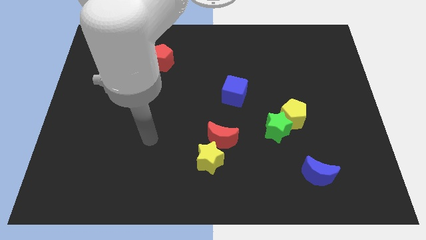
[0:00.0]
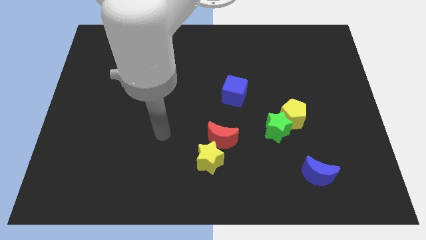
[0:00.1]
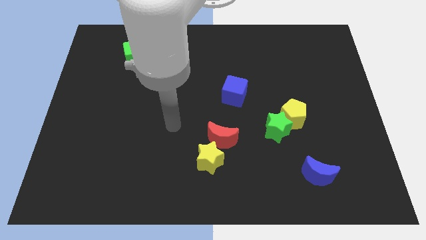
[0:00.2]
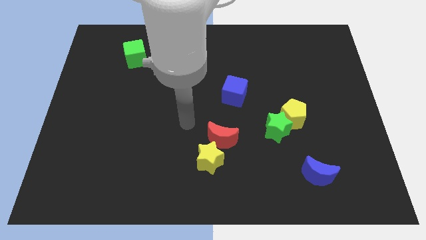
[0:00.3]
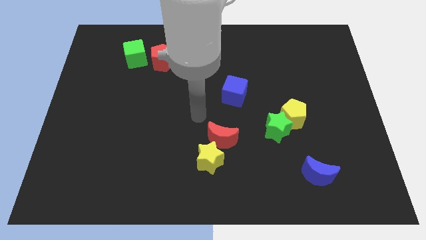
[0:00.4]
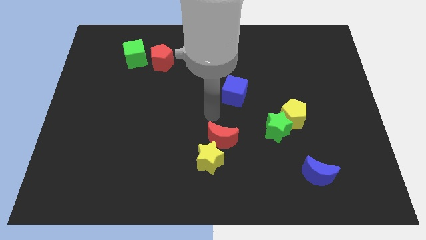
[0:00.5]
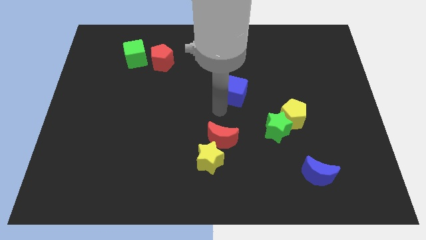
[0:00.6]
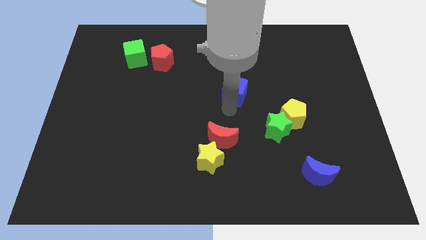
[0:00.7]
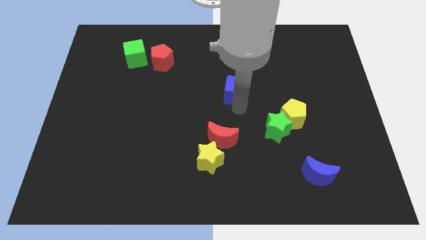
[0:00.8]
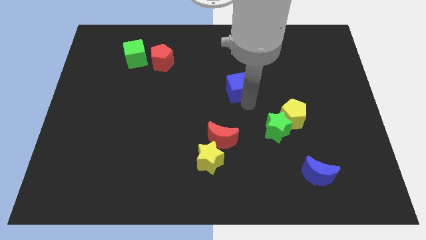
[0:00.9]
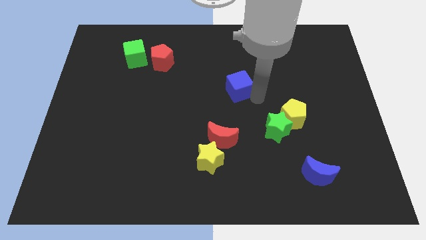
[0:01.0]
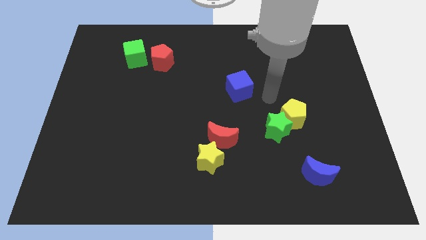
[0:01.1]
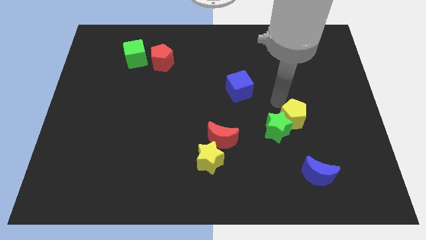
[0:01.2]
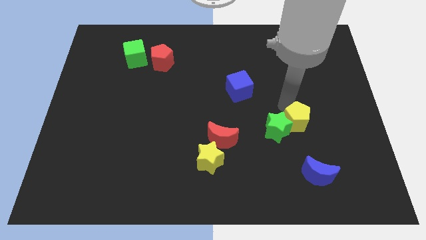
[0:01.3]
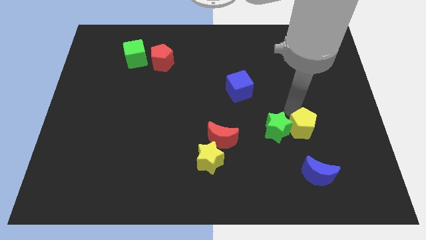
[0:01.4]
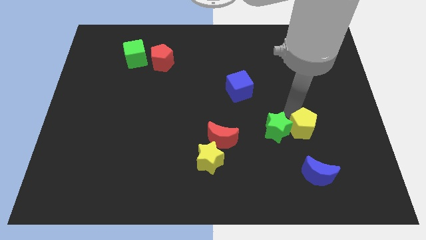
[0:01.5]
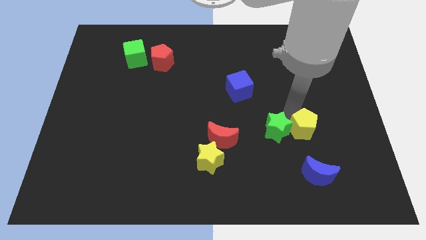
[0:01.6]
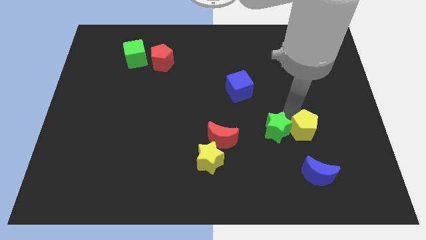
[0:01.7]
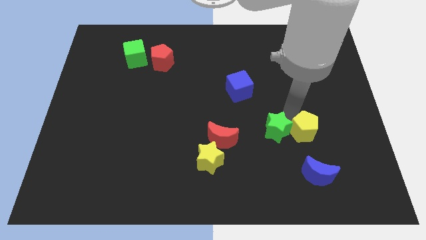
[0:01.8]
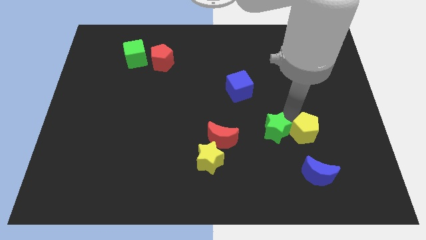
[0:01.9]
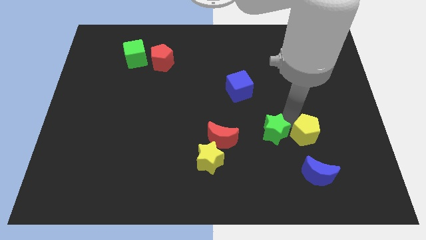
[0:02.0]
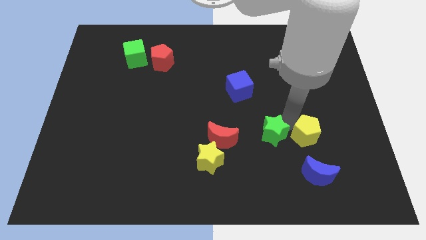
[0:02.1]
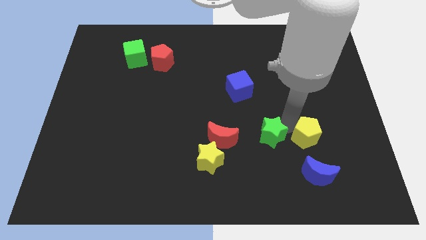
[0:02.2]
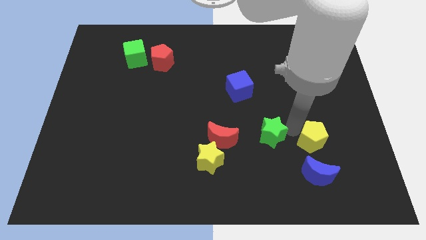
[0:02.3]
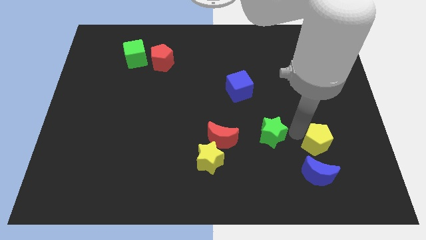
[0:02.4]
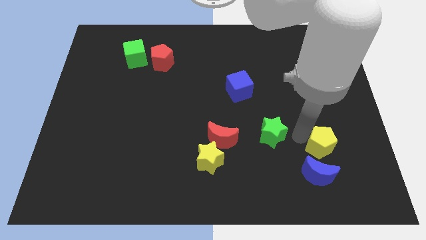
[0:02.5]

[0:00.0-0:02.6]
separate the green star from the yellow pentagon

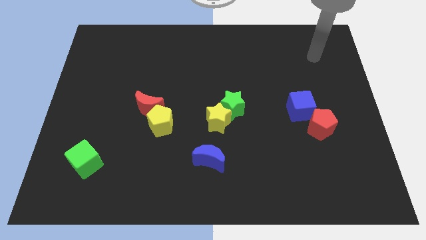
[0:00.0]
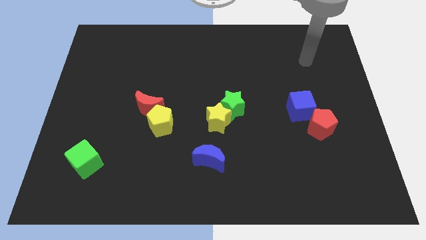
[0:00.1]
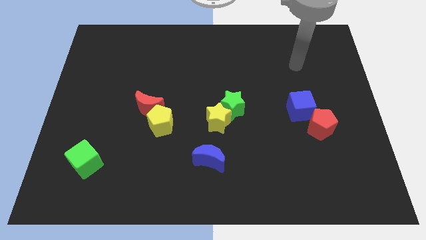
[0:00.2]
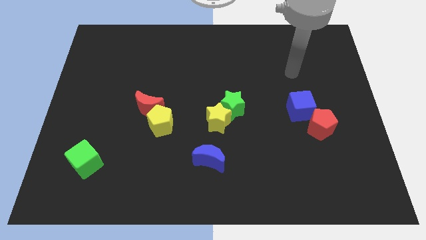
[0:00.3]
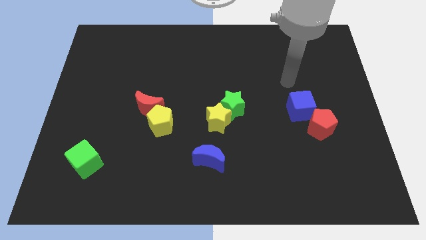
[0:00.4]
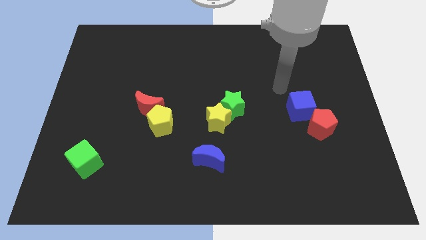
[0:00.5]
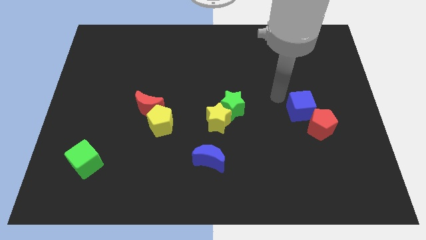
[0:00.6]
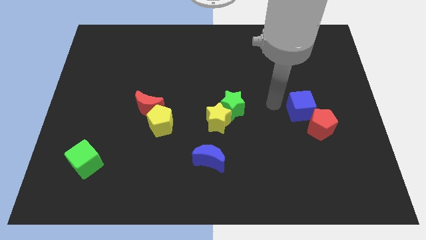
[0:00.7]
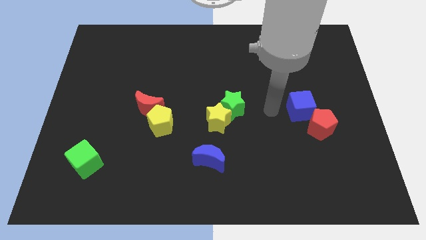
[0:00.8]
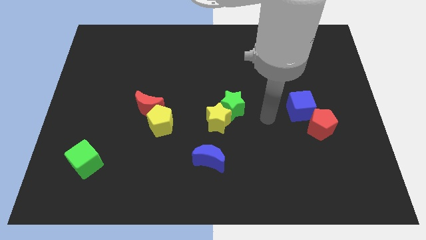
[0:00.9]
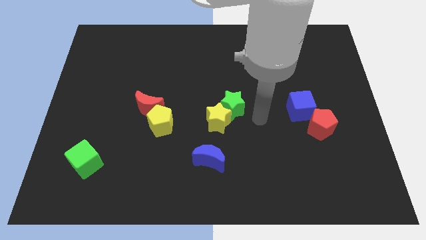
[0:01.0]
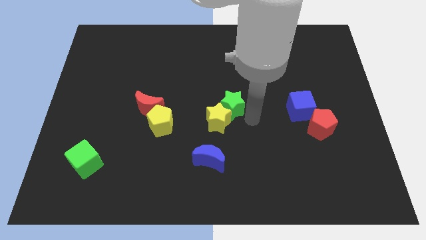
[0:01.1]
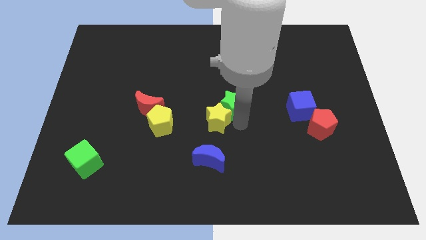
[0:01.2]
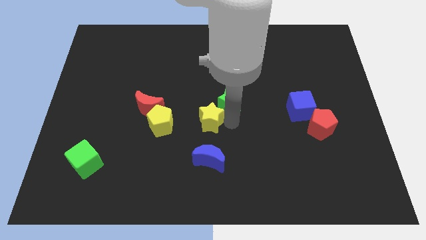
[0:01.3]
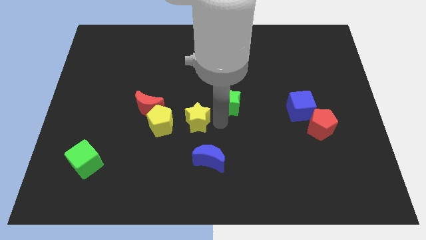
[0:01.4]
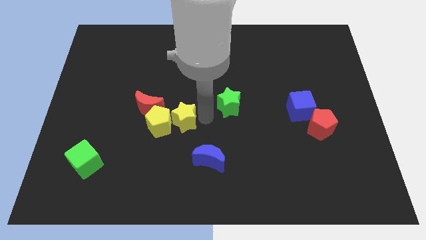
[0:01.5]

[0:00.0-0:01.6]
separate the green star from the yellow star

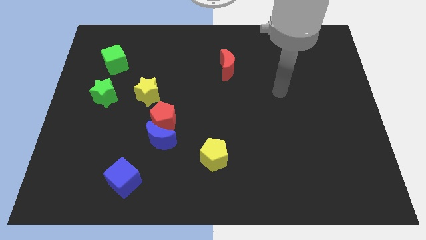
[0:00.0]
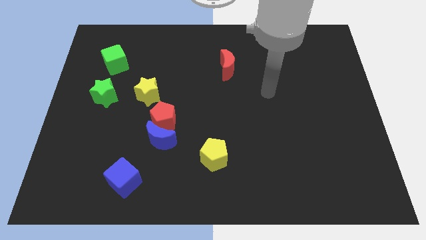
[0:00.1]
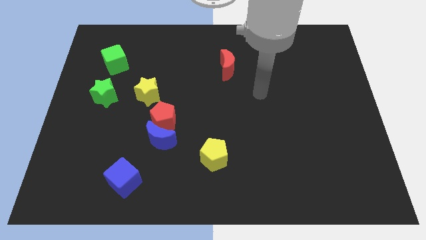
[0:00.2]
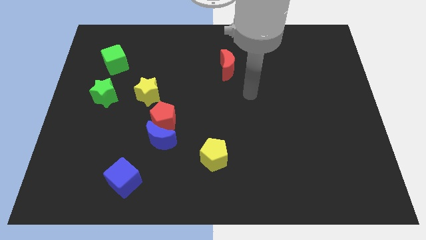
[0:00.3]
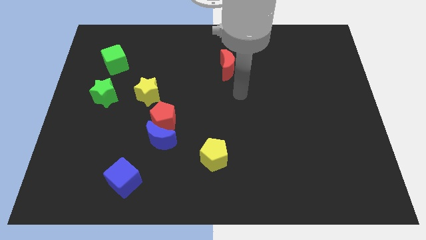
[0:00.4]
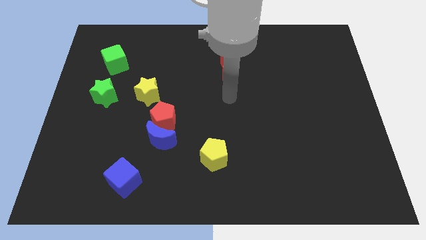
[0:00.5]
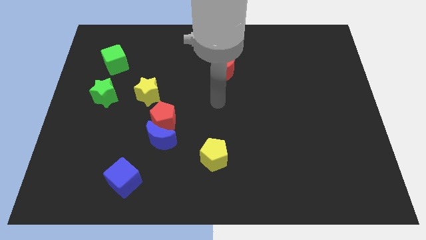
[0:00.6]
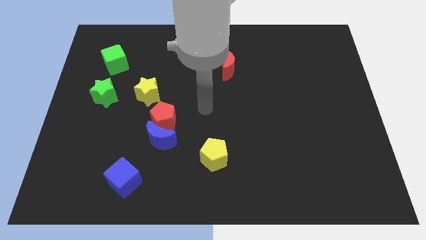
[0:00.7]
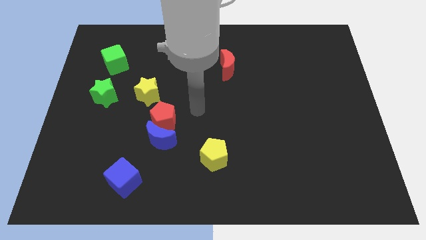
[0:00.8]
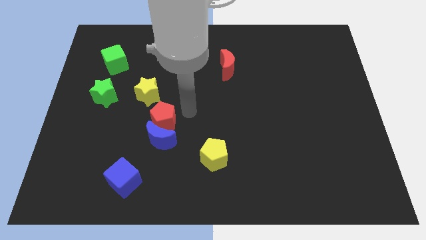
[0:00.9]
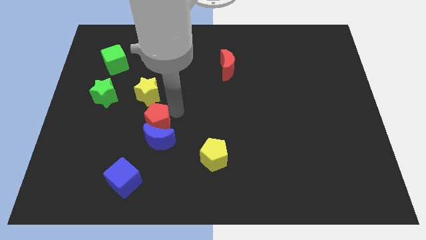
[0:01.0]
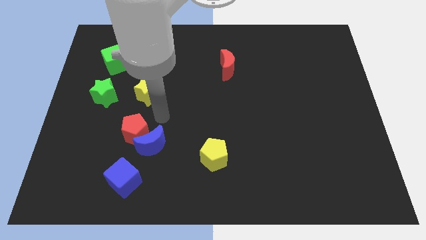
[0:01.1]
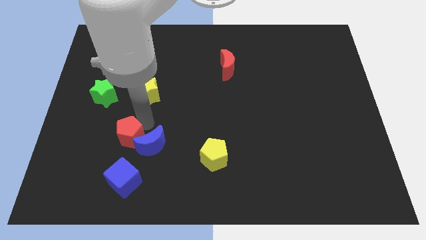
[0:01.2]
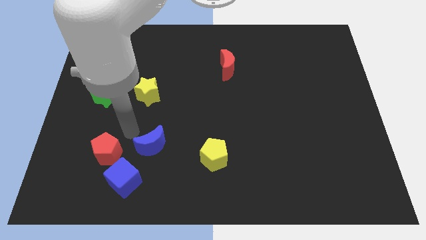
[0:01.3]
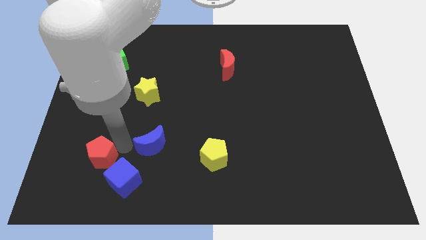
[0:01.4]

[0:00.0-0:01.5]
move the blue moon away from the red pentagon

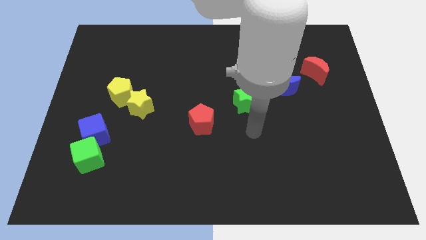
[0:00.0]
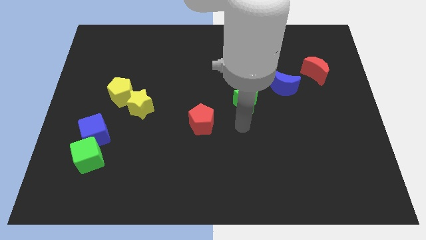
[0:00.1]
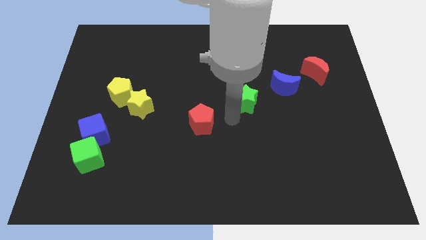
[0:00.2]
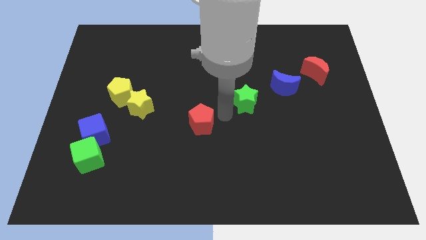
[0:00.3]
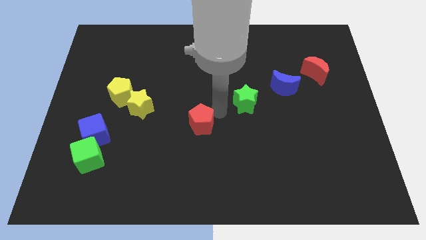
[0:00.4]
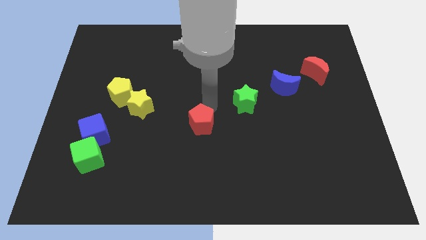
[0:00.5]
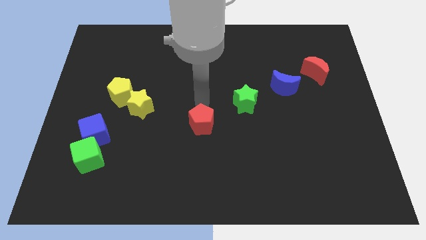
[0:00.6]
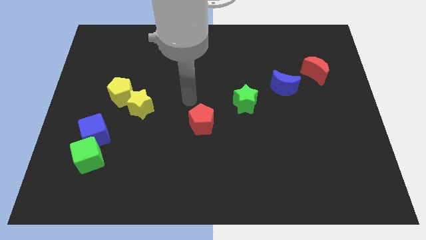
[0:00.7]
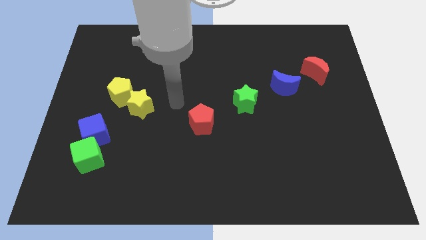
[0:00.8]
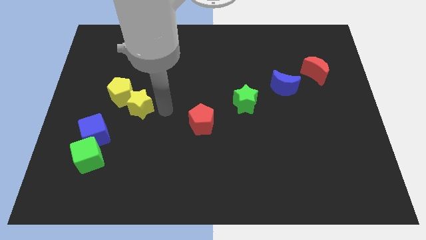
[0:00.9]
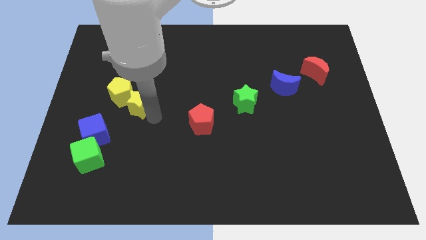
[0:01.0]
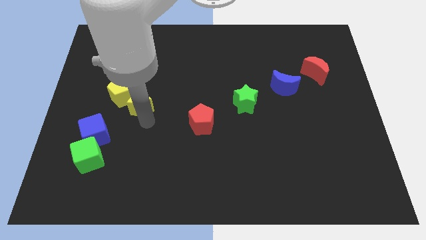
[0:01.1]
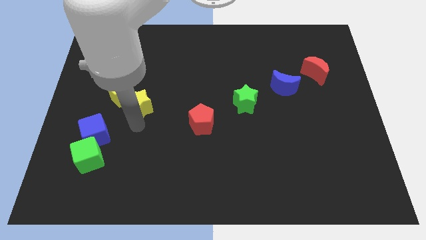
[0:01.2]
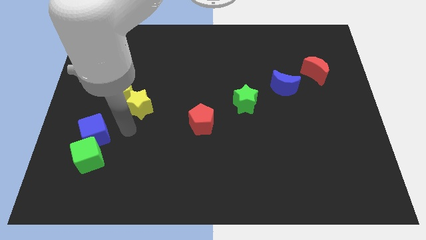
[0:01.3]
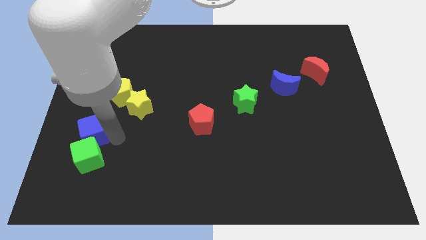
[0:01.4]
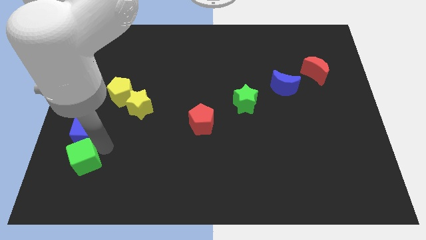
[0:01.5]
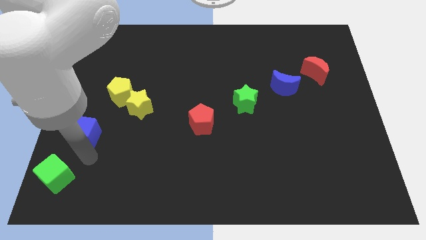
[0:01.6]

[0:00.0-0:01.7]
separate the blue cube from the green cube

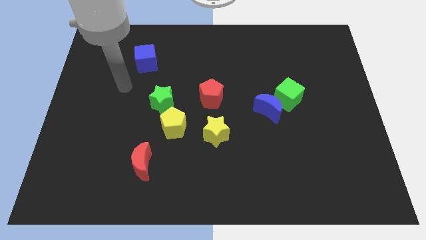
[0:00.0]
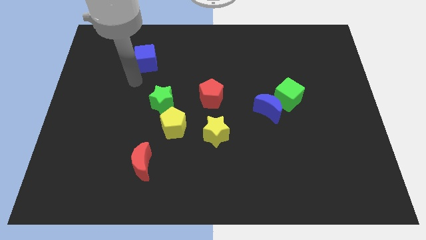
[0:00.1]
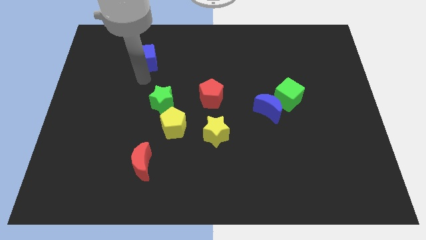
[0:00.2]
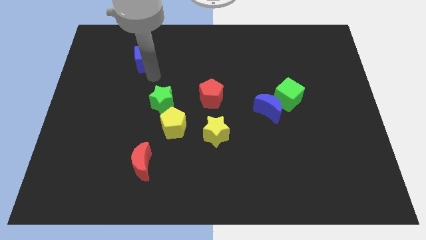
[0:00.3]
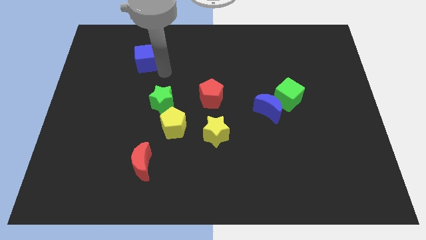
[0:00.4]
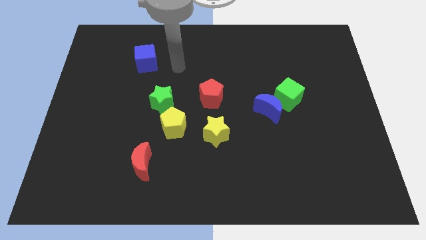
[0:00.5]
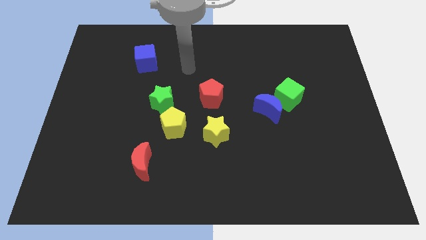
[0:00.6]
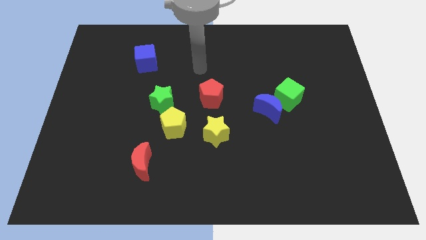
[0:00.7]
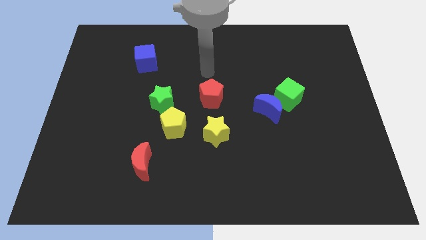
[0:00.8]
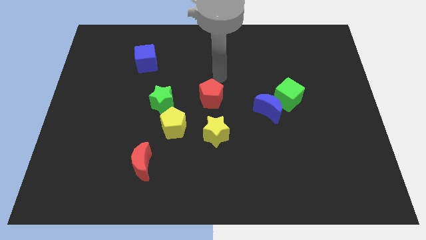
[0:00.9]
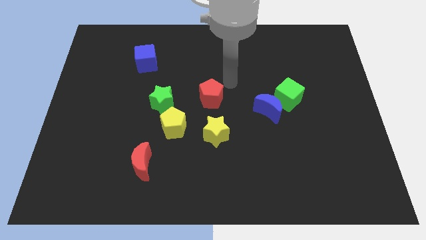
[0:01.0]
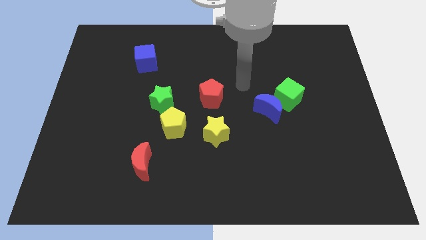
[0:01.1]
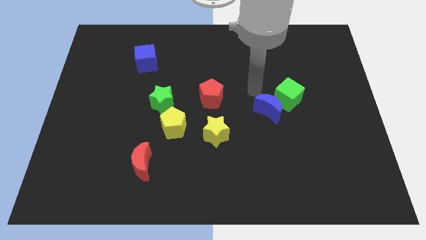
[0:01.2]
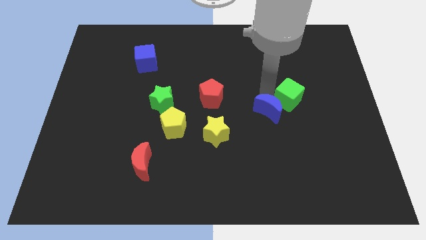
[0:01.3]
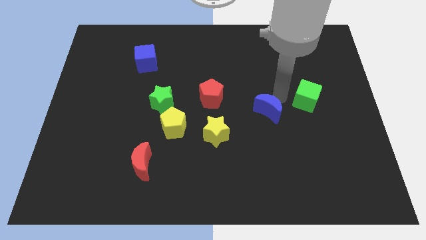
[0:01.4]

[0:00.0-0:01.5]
separate the blue moon from the green cube

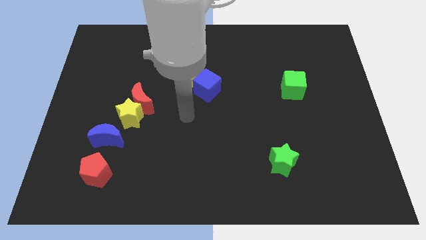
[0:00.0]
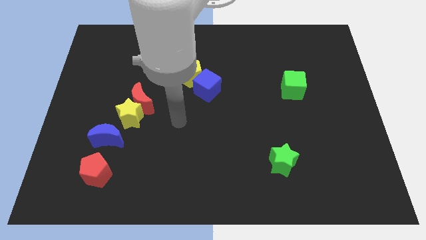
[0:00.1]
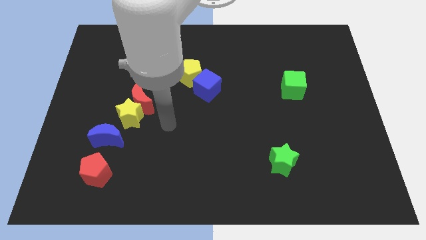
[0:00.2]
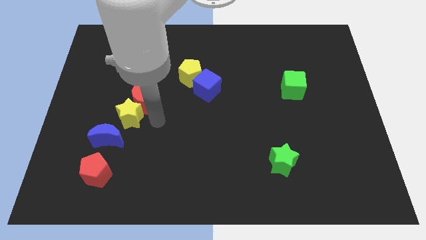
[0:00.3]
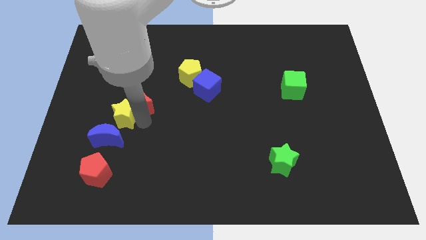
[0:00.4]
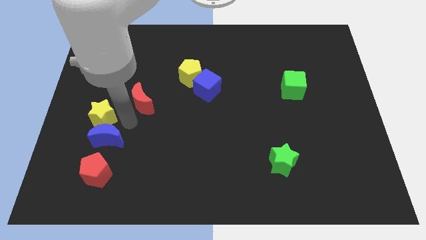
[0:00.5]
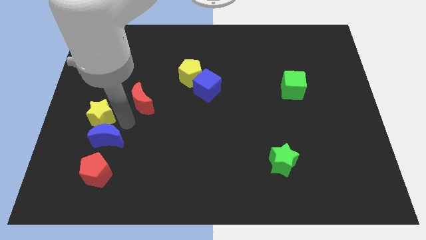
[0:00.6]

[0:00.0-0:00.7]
pull the red moon apart from the yellow star
